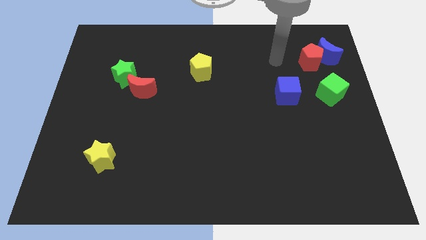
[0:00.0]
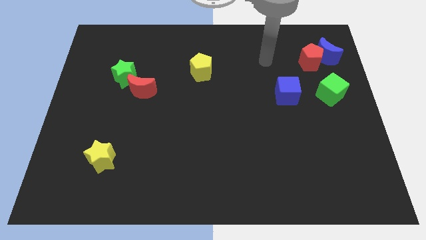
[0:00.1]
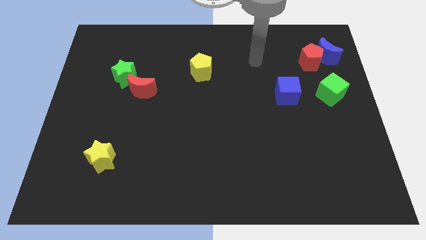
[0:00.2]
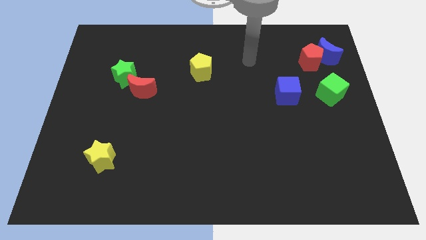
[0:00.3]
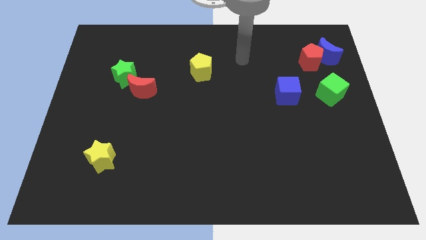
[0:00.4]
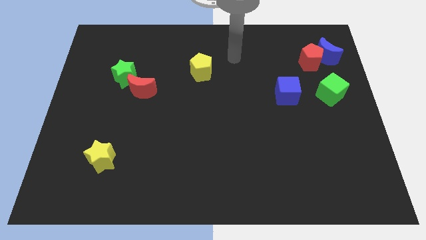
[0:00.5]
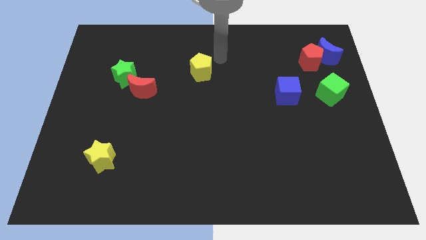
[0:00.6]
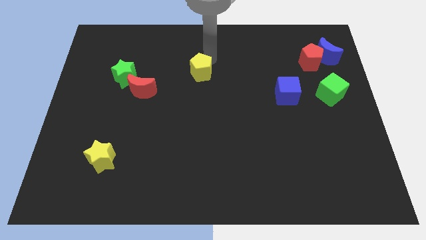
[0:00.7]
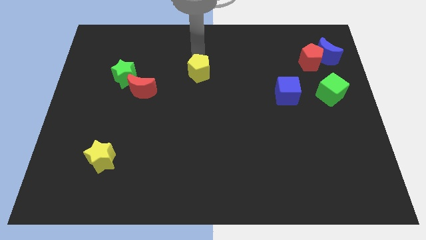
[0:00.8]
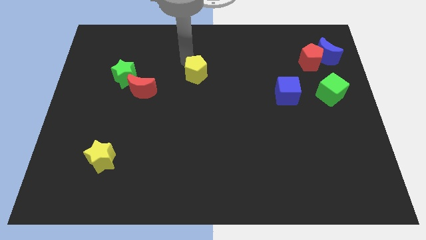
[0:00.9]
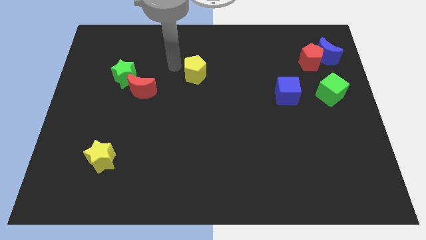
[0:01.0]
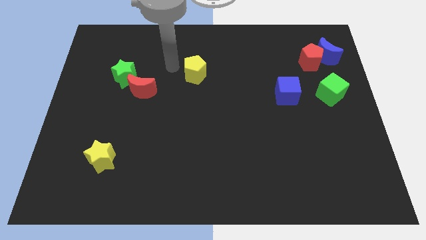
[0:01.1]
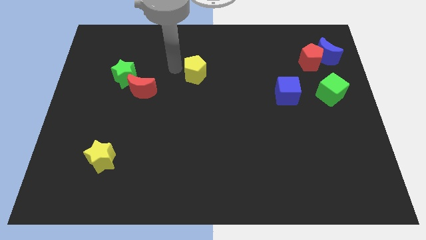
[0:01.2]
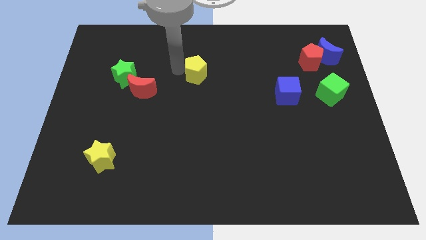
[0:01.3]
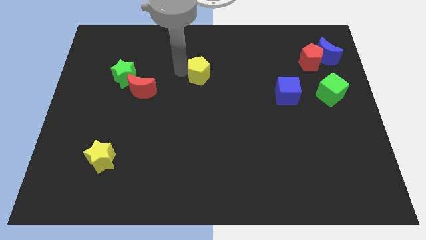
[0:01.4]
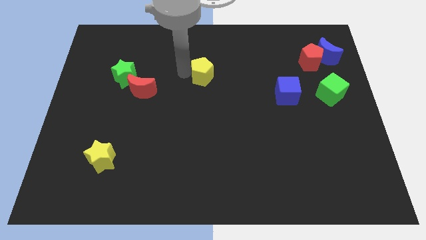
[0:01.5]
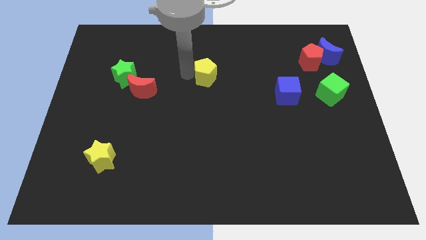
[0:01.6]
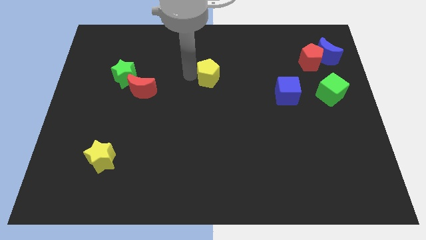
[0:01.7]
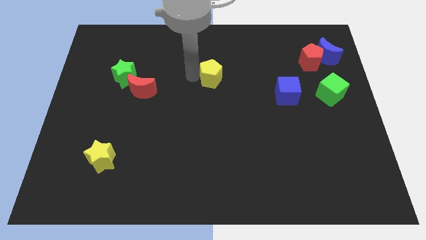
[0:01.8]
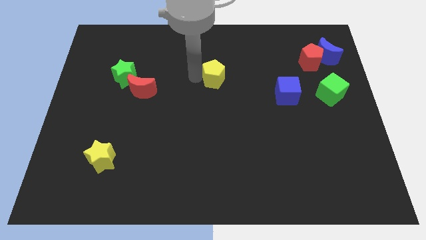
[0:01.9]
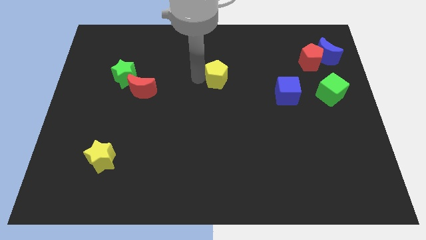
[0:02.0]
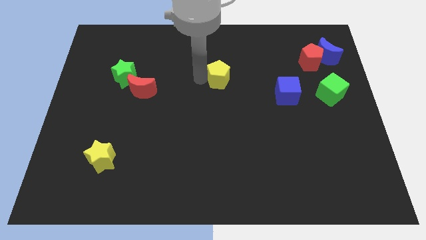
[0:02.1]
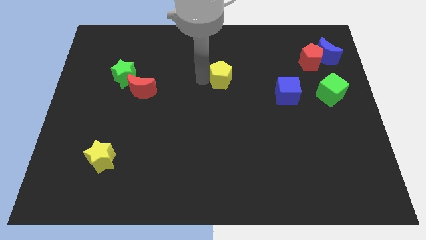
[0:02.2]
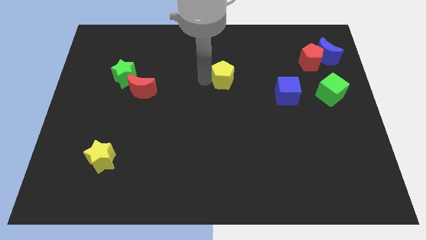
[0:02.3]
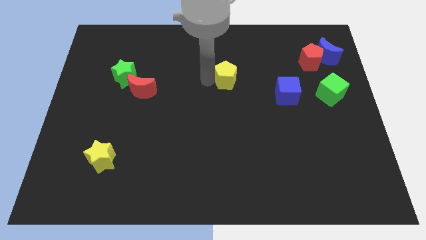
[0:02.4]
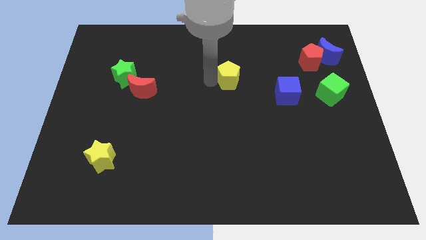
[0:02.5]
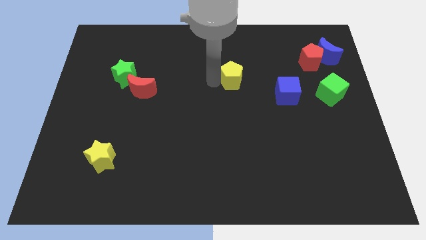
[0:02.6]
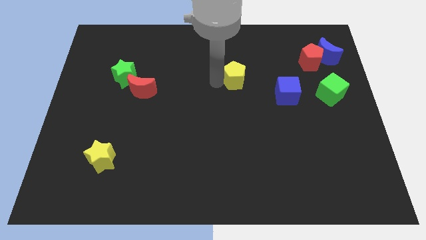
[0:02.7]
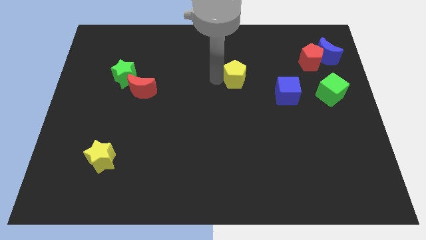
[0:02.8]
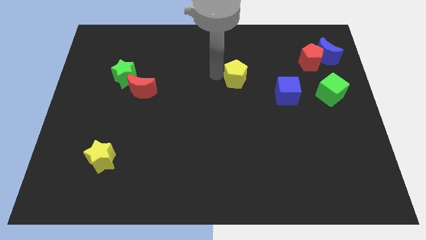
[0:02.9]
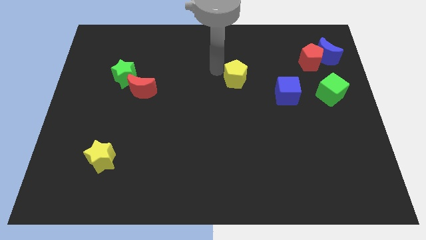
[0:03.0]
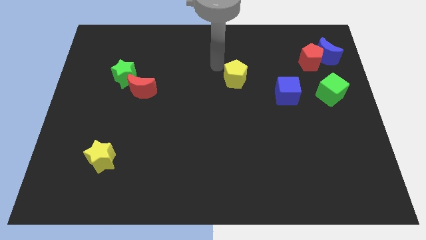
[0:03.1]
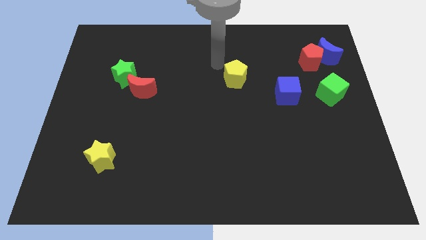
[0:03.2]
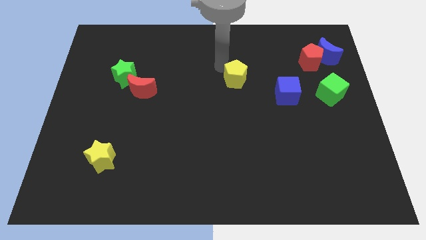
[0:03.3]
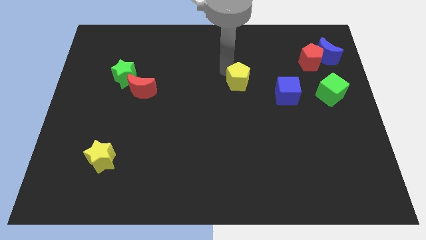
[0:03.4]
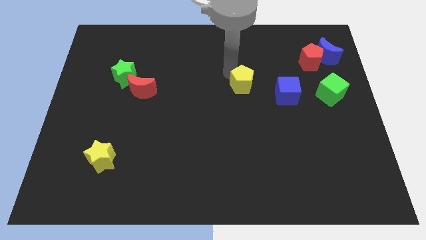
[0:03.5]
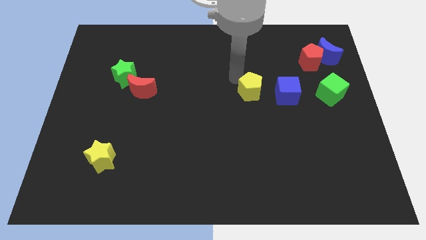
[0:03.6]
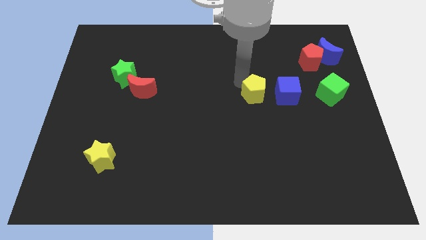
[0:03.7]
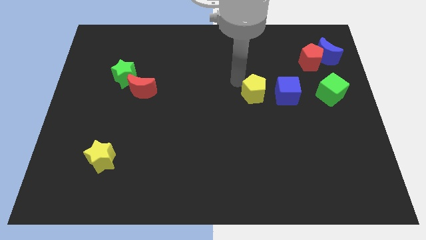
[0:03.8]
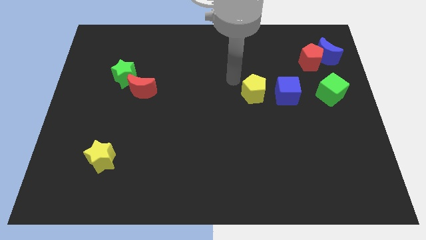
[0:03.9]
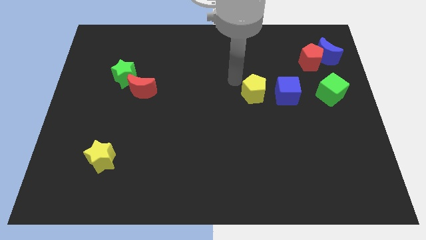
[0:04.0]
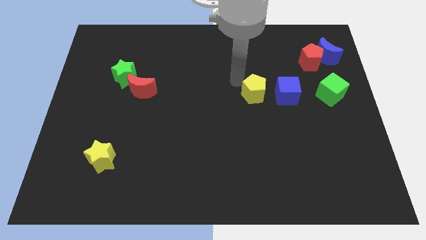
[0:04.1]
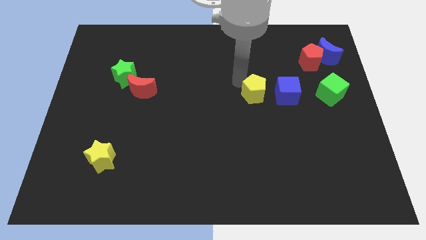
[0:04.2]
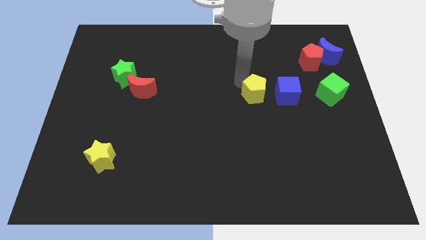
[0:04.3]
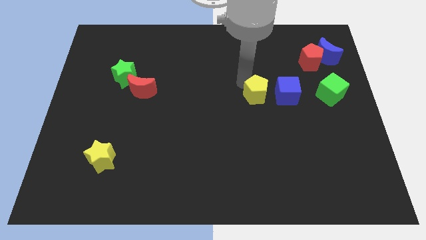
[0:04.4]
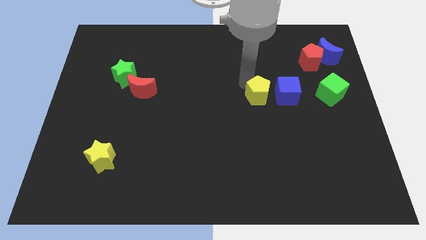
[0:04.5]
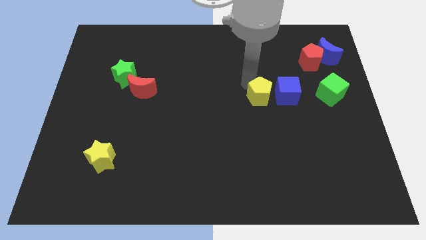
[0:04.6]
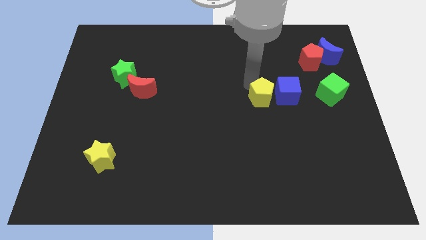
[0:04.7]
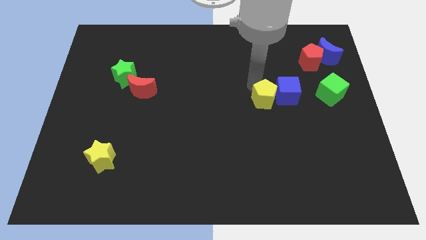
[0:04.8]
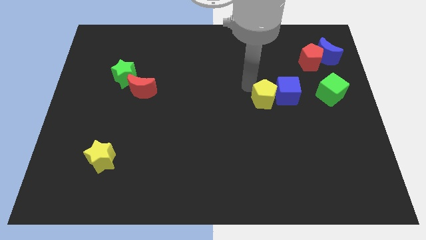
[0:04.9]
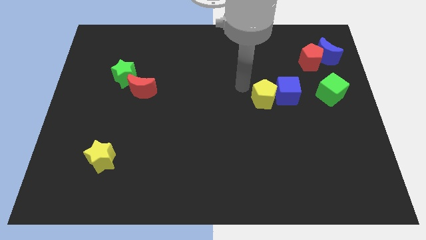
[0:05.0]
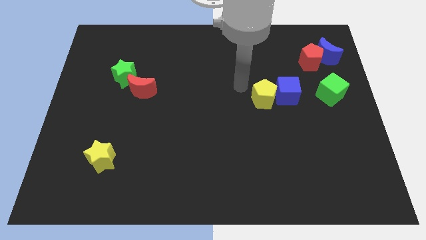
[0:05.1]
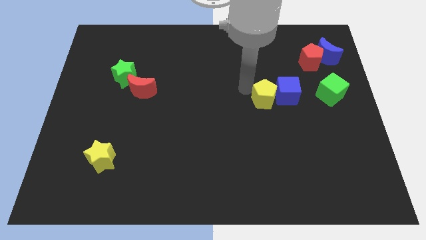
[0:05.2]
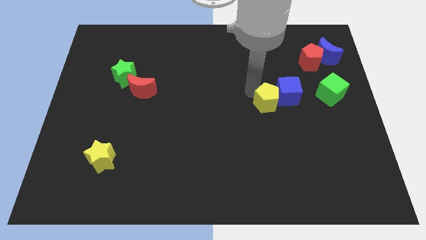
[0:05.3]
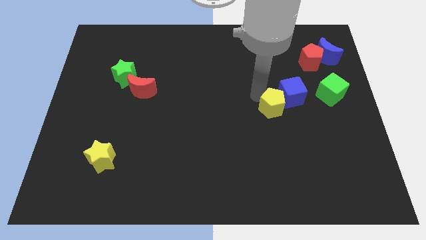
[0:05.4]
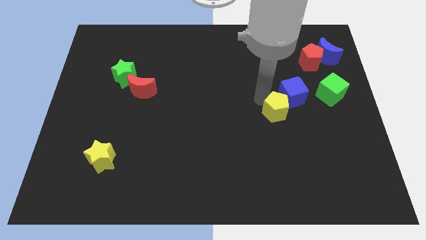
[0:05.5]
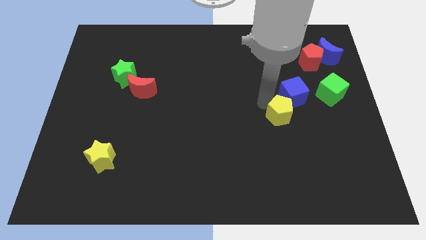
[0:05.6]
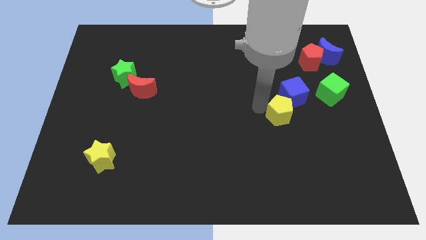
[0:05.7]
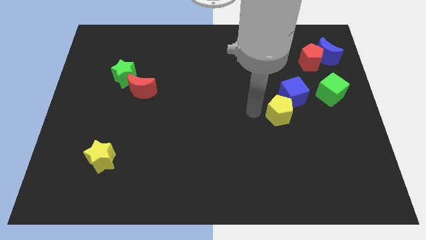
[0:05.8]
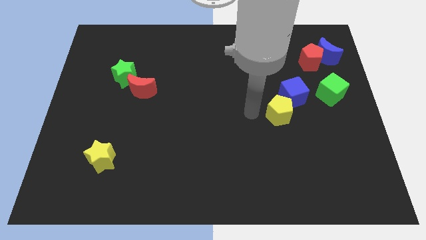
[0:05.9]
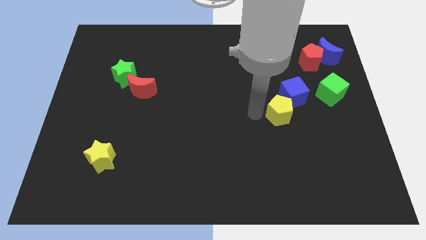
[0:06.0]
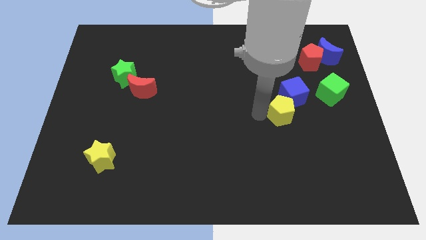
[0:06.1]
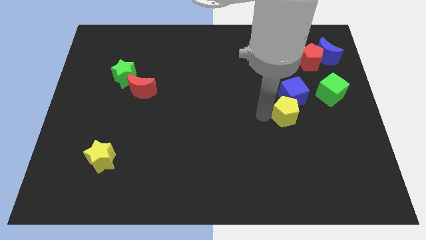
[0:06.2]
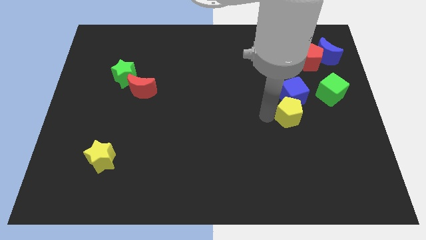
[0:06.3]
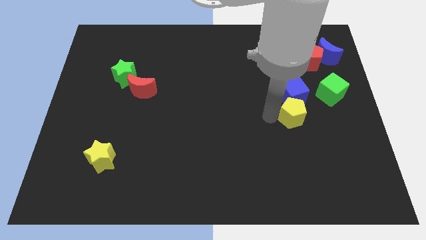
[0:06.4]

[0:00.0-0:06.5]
put the yellow pentagon diagonally down and to the right of the blue cube
